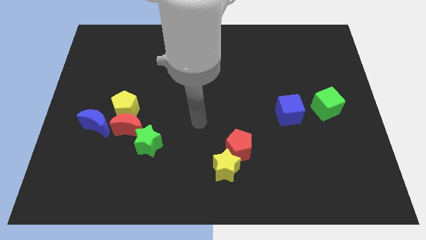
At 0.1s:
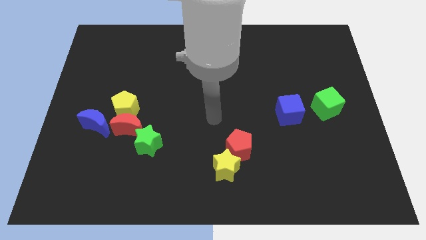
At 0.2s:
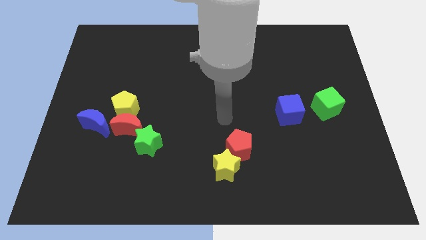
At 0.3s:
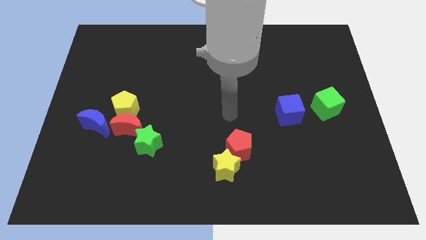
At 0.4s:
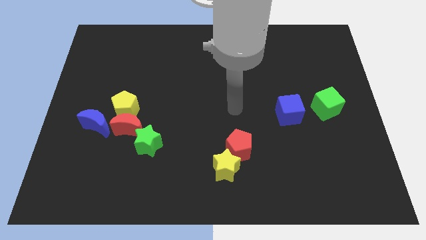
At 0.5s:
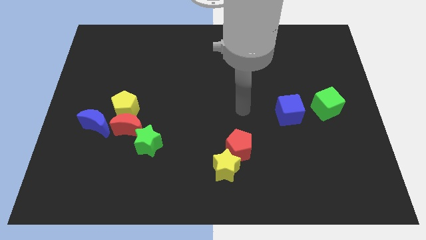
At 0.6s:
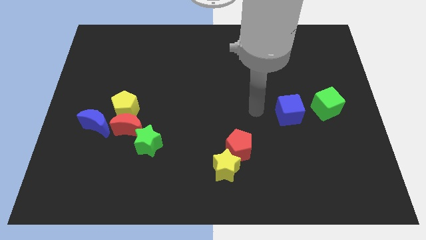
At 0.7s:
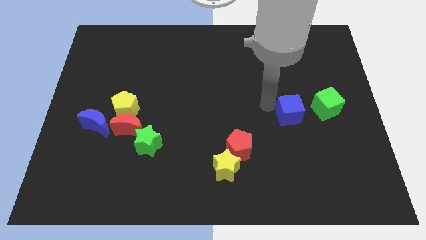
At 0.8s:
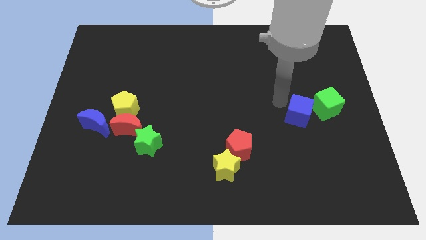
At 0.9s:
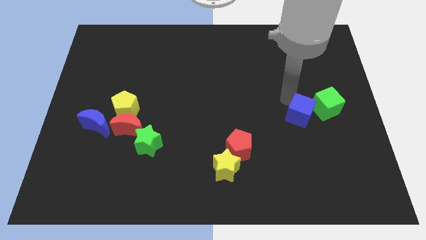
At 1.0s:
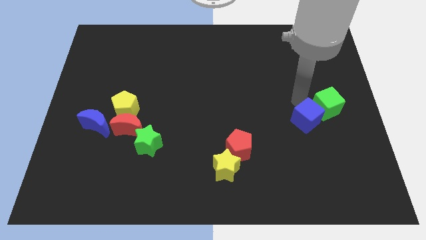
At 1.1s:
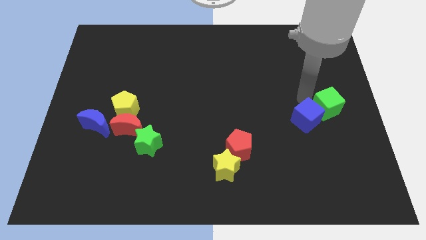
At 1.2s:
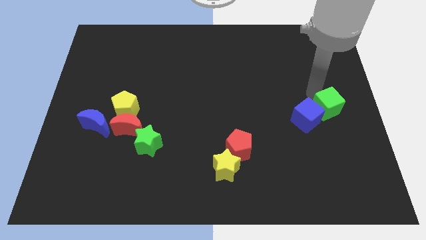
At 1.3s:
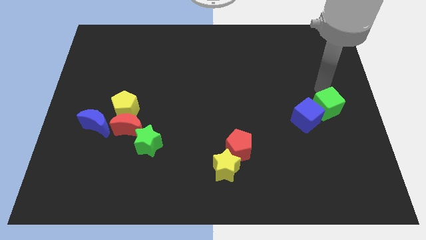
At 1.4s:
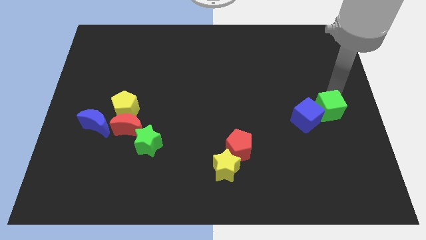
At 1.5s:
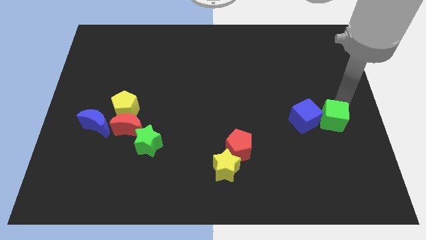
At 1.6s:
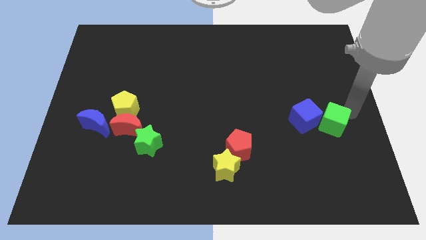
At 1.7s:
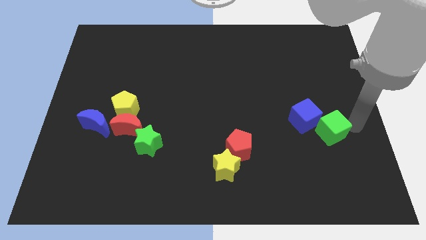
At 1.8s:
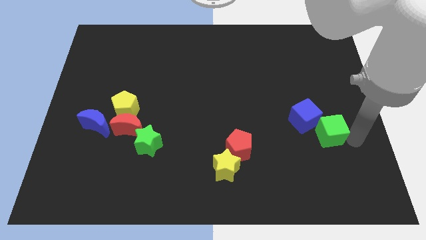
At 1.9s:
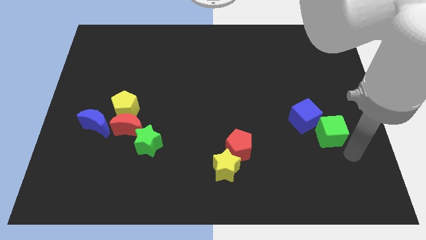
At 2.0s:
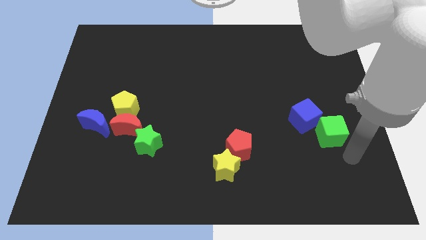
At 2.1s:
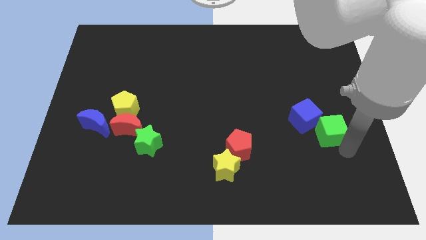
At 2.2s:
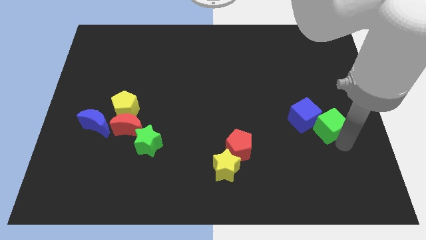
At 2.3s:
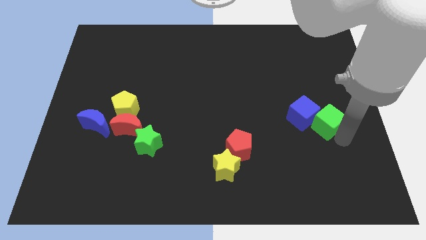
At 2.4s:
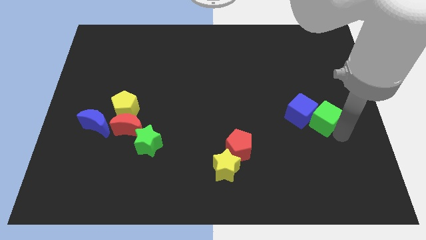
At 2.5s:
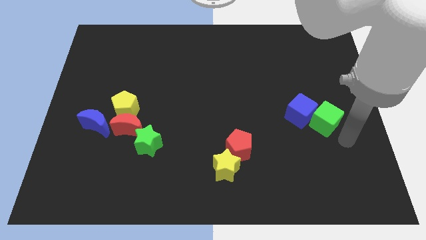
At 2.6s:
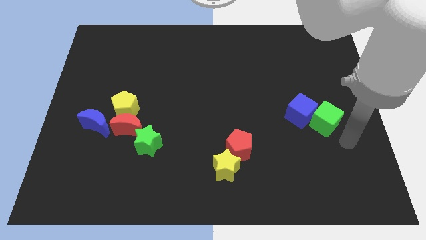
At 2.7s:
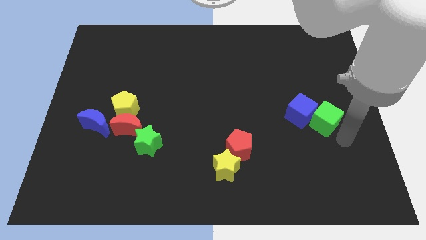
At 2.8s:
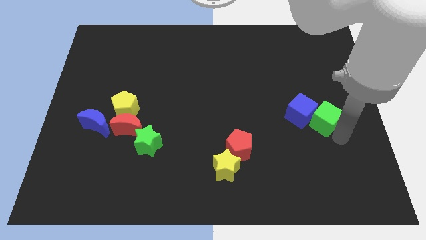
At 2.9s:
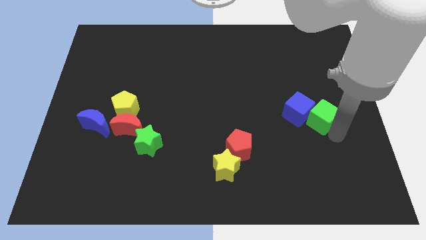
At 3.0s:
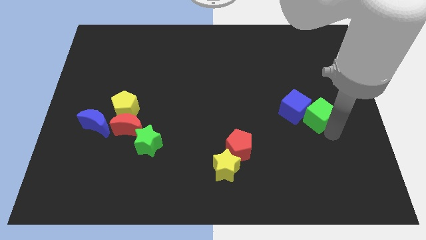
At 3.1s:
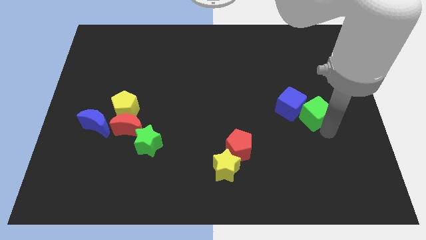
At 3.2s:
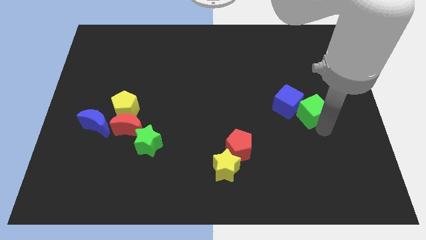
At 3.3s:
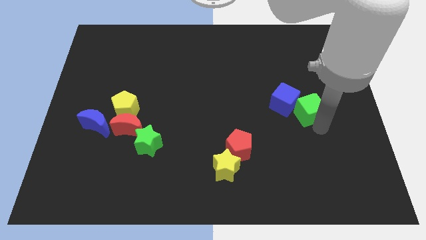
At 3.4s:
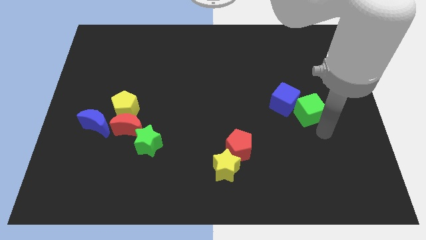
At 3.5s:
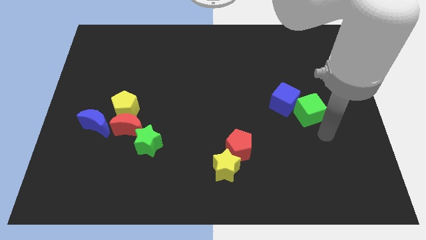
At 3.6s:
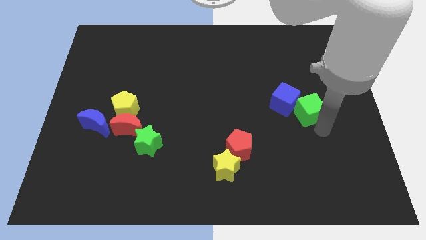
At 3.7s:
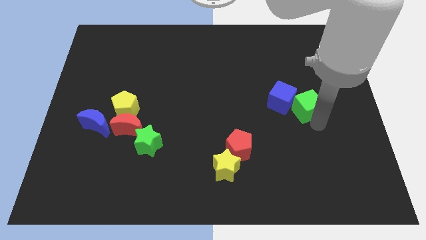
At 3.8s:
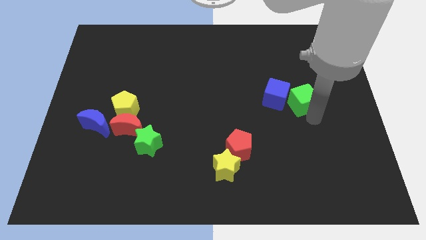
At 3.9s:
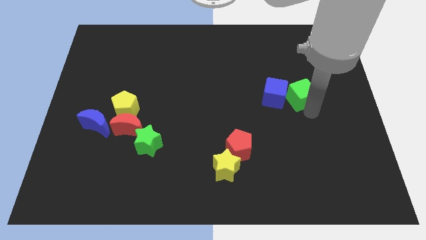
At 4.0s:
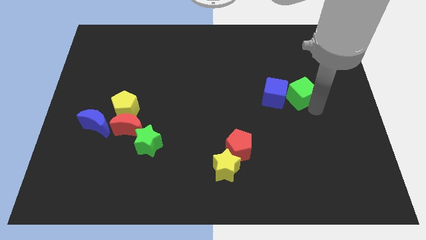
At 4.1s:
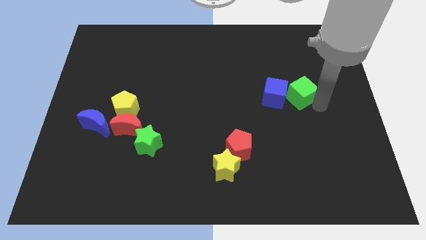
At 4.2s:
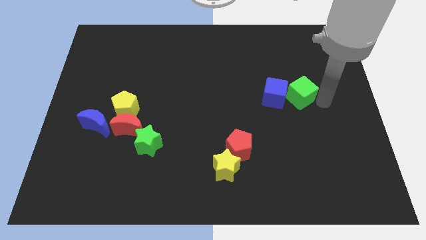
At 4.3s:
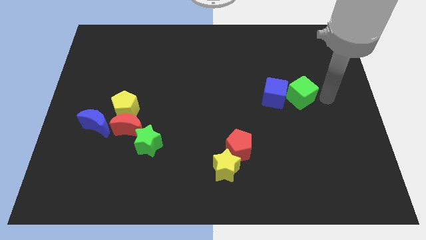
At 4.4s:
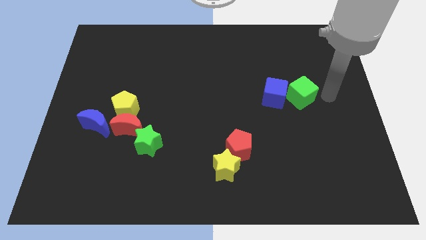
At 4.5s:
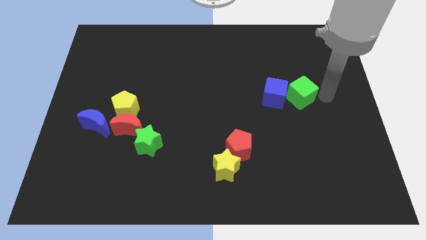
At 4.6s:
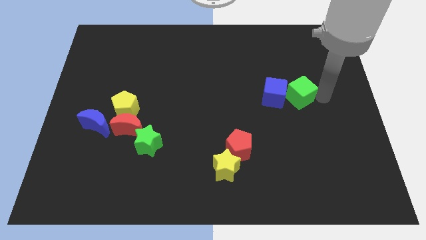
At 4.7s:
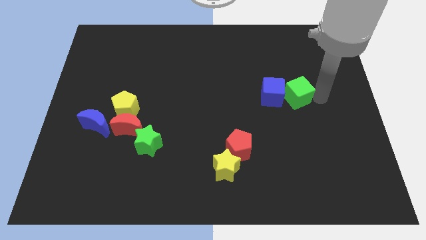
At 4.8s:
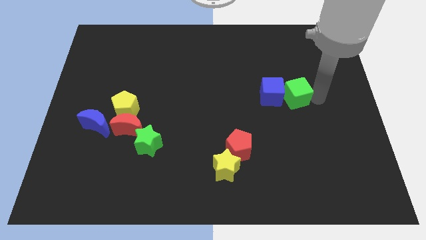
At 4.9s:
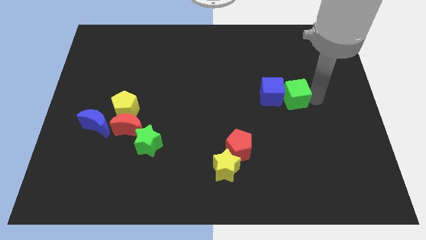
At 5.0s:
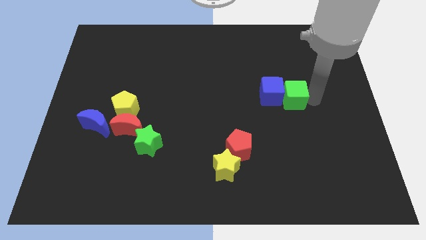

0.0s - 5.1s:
move the green cube somewhat left

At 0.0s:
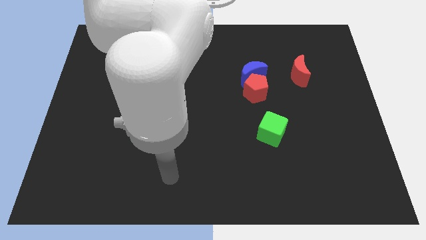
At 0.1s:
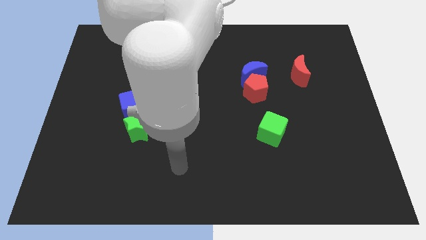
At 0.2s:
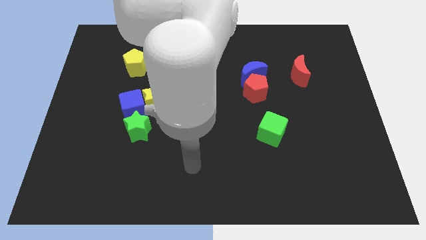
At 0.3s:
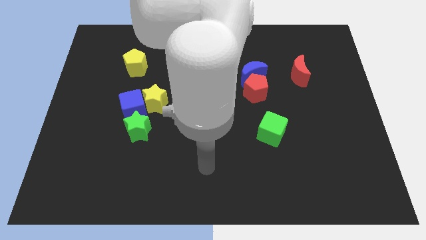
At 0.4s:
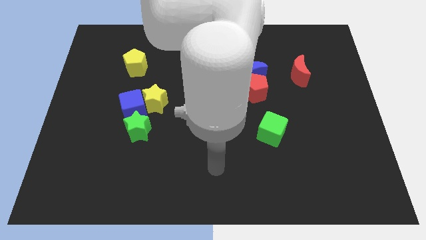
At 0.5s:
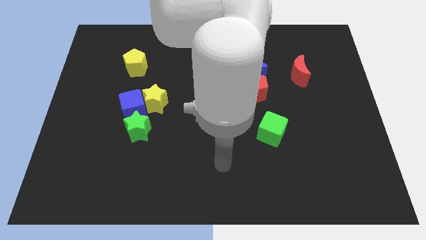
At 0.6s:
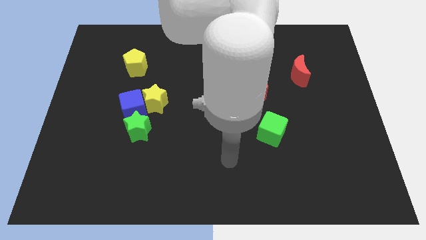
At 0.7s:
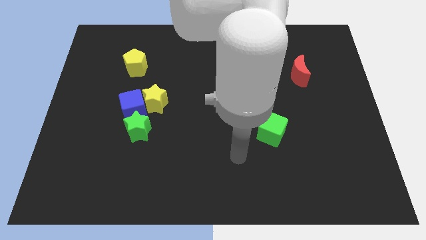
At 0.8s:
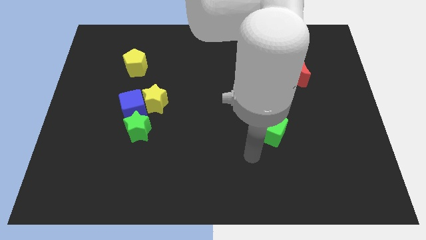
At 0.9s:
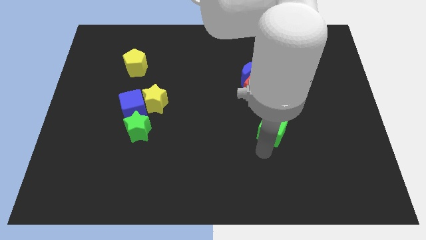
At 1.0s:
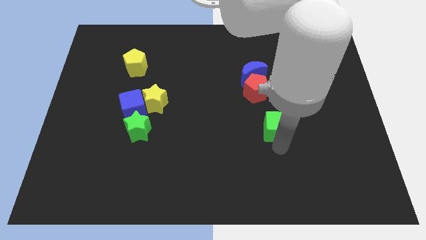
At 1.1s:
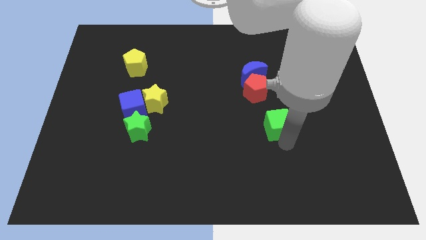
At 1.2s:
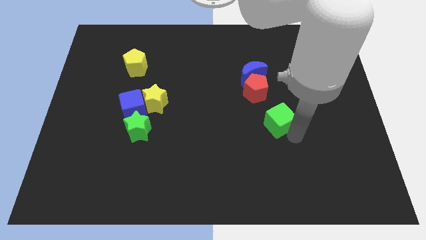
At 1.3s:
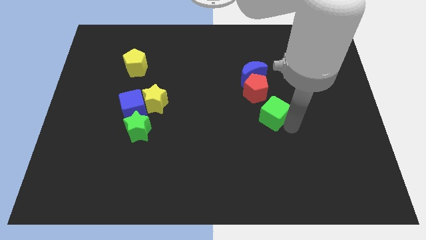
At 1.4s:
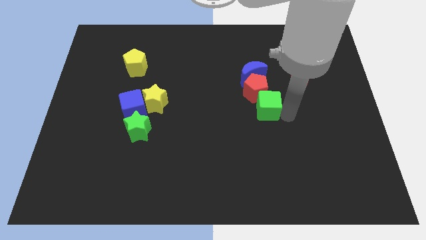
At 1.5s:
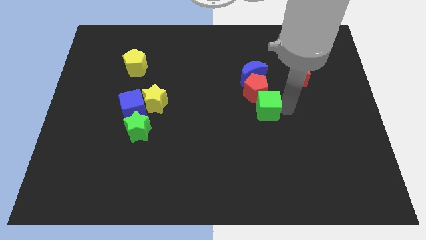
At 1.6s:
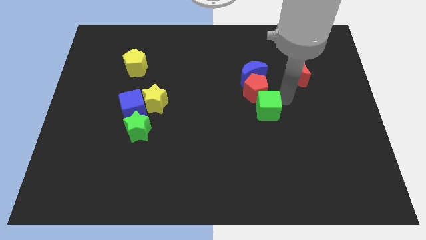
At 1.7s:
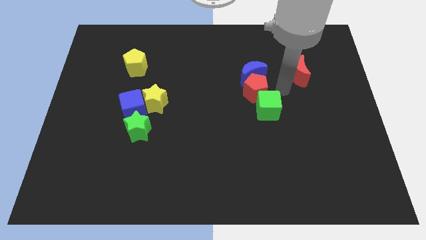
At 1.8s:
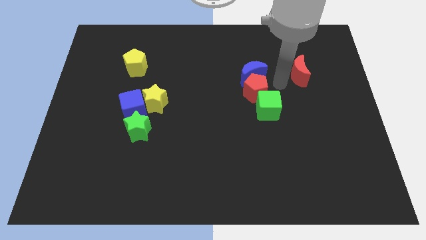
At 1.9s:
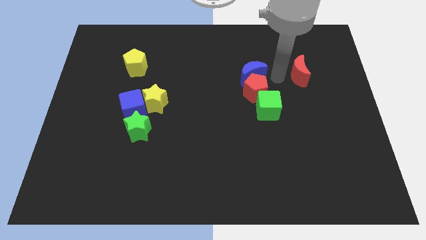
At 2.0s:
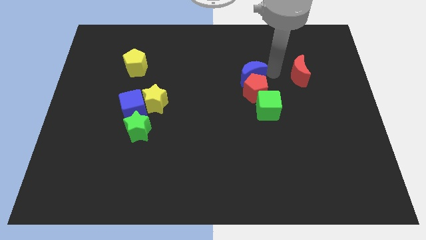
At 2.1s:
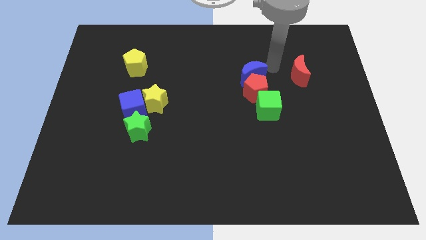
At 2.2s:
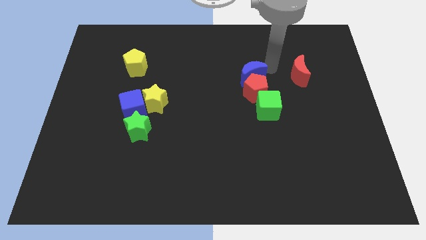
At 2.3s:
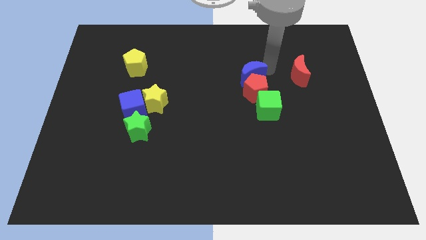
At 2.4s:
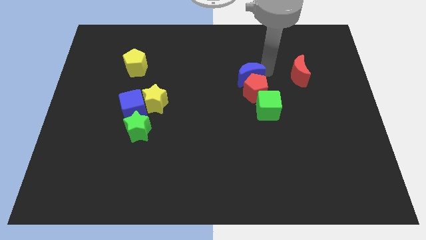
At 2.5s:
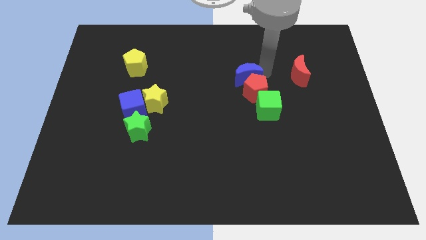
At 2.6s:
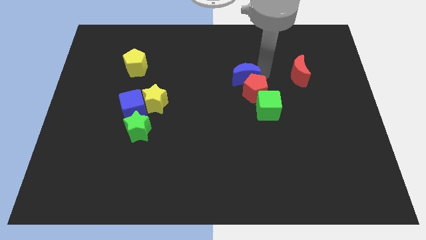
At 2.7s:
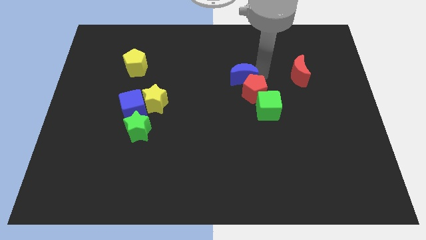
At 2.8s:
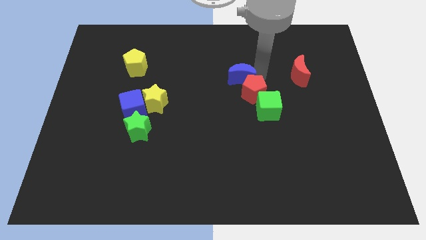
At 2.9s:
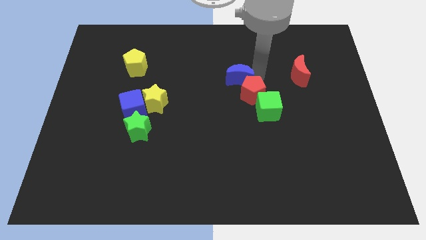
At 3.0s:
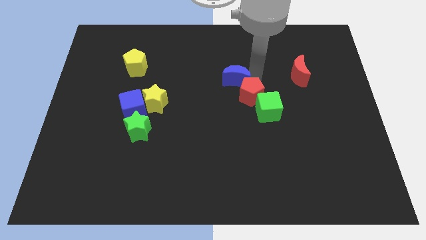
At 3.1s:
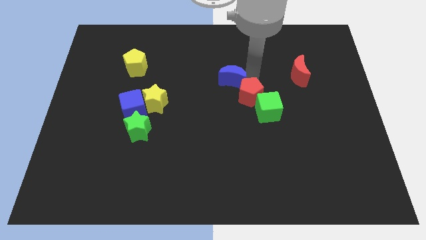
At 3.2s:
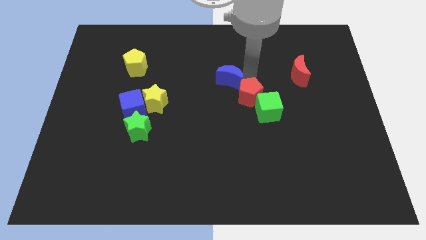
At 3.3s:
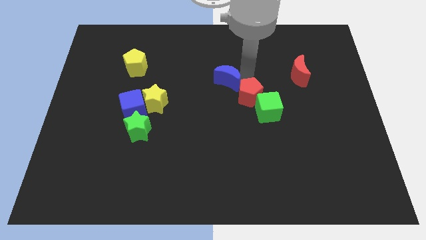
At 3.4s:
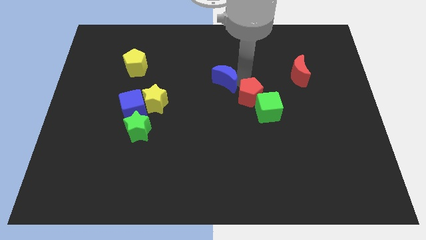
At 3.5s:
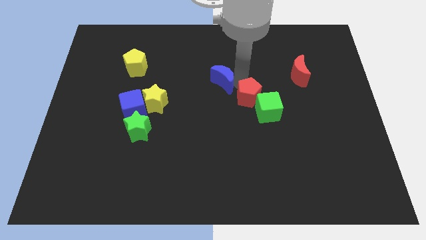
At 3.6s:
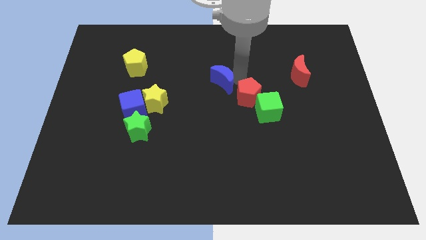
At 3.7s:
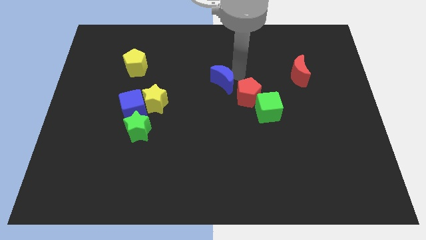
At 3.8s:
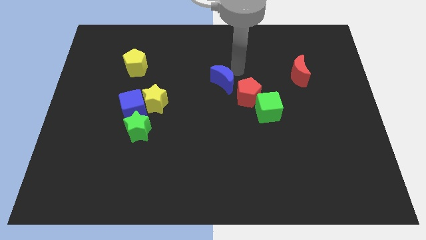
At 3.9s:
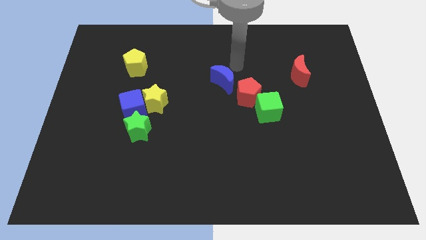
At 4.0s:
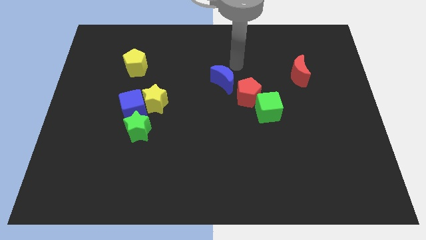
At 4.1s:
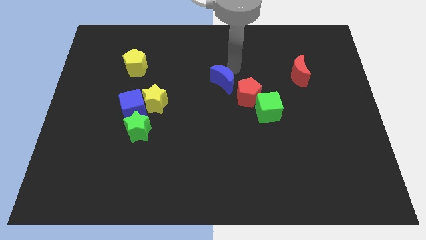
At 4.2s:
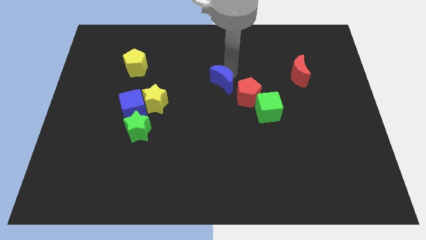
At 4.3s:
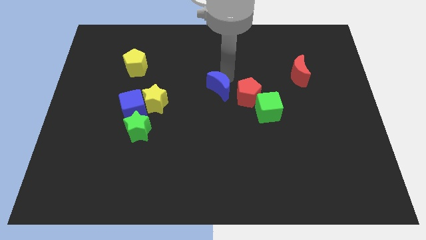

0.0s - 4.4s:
slightly slide the blue moon down and then to the left
